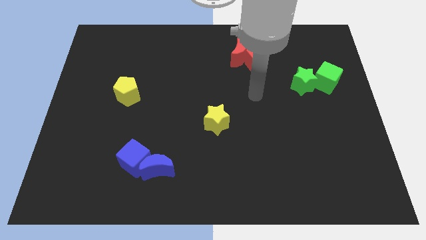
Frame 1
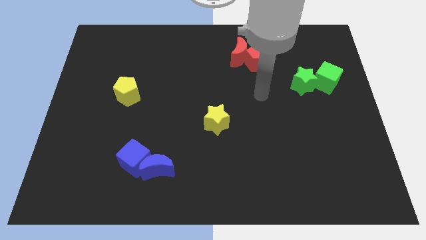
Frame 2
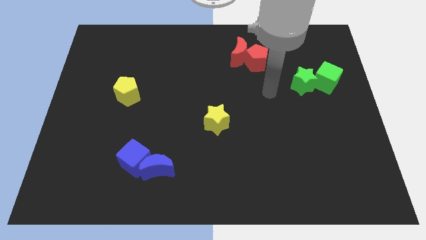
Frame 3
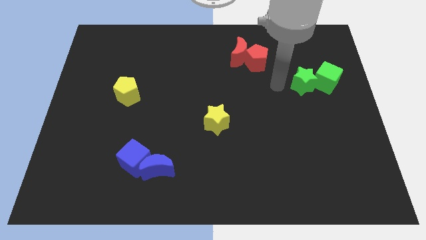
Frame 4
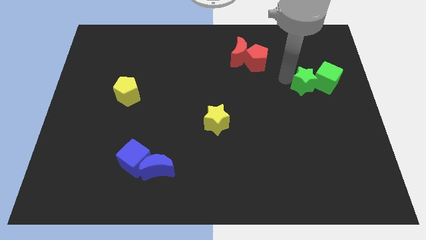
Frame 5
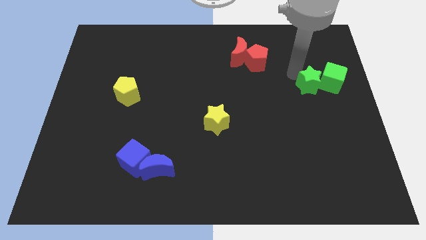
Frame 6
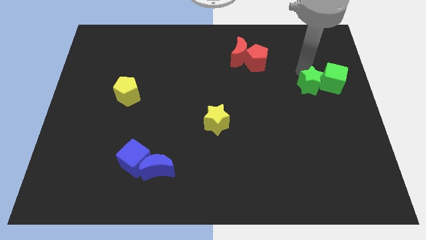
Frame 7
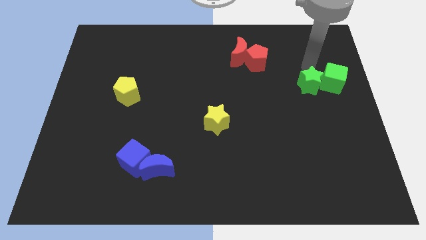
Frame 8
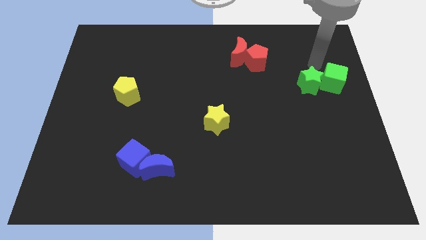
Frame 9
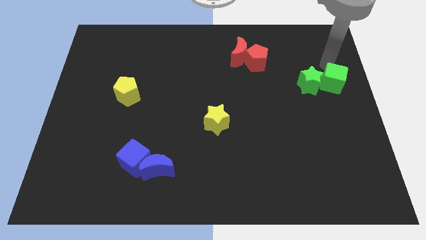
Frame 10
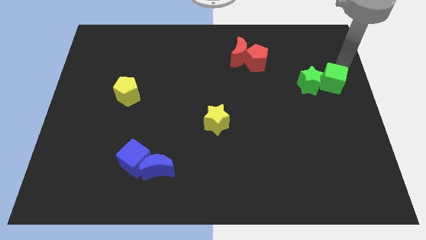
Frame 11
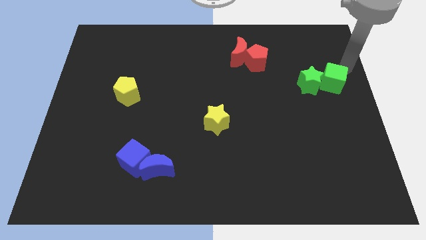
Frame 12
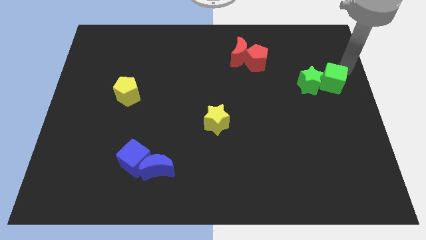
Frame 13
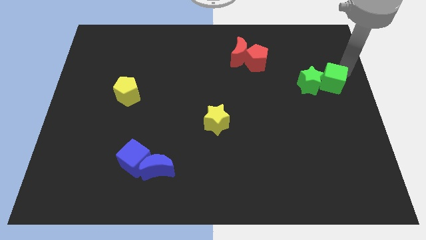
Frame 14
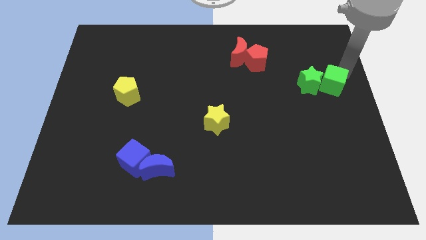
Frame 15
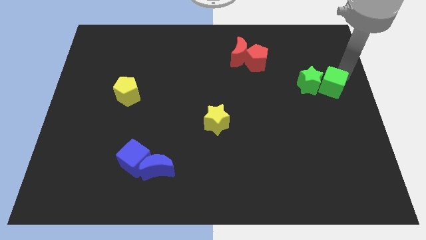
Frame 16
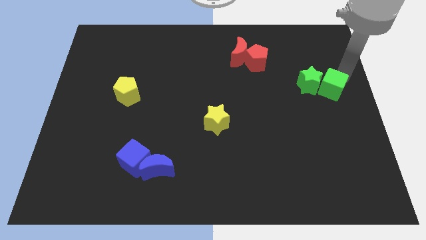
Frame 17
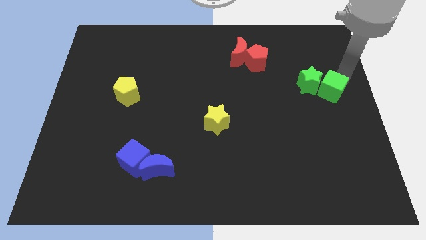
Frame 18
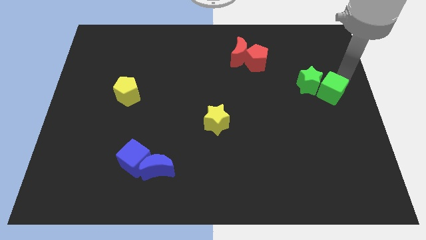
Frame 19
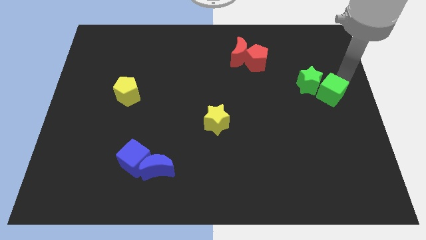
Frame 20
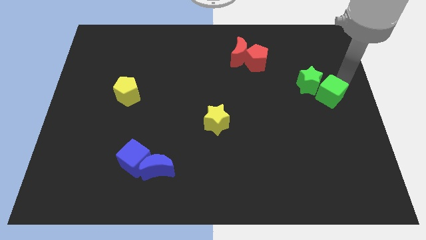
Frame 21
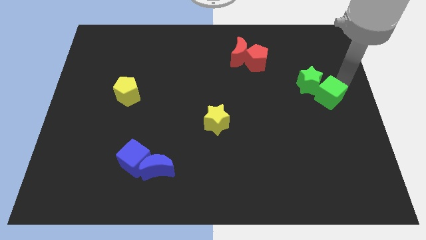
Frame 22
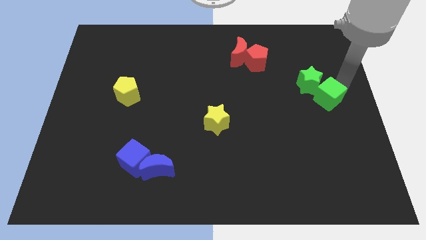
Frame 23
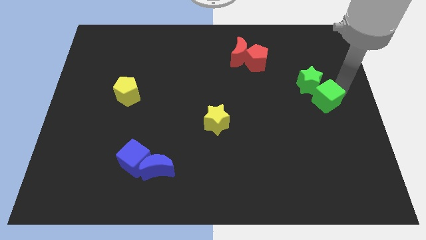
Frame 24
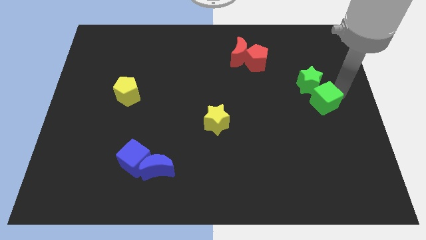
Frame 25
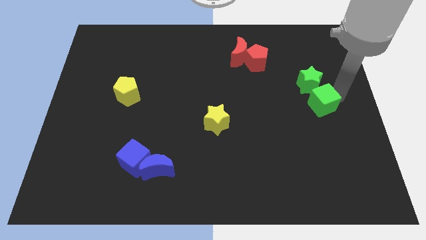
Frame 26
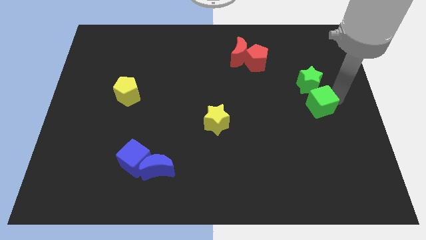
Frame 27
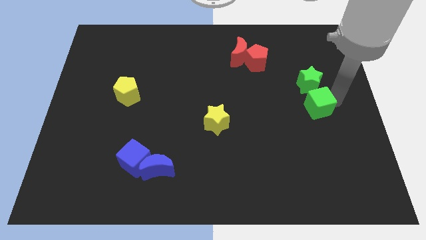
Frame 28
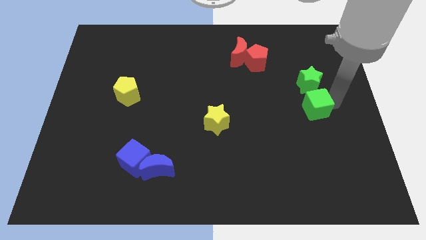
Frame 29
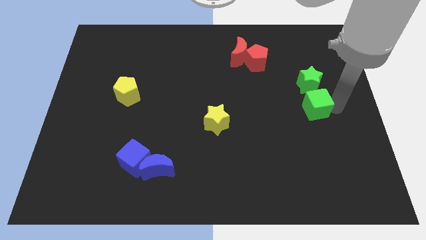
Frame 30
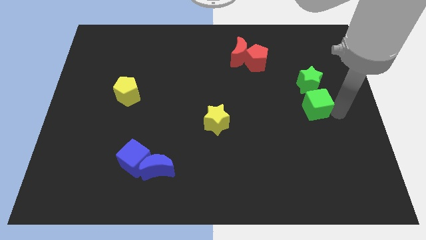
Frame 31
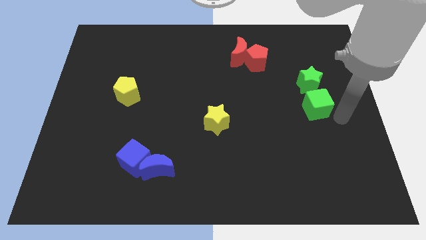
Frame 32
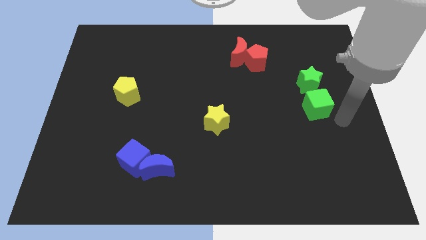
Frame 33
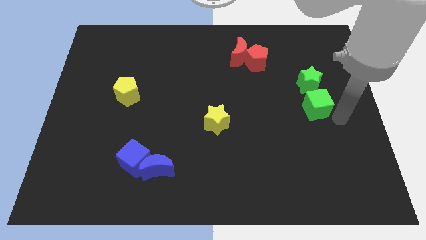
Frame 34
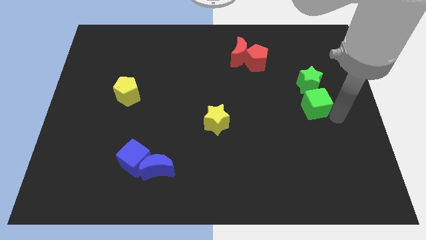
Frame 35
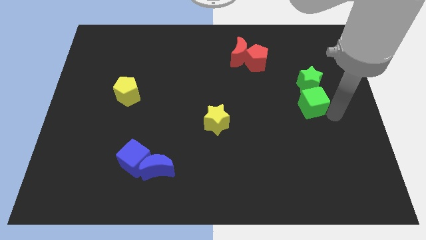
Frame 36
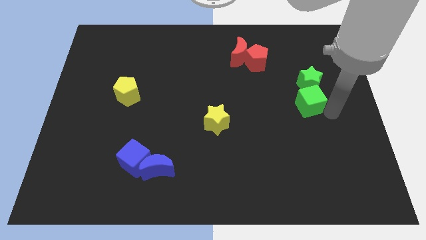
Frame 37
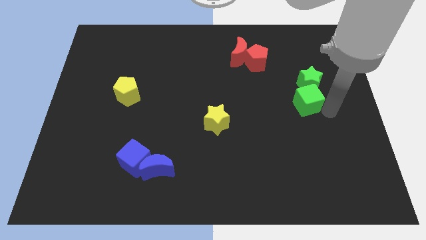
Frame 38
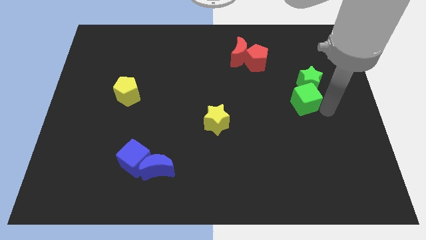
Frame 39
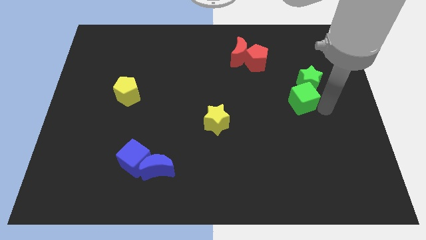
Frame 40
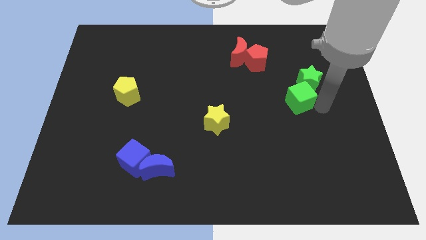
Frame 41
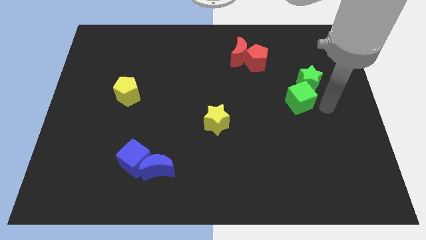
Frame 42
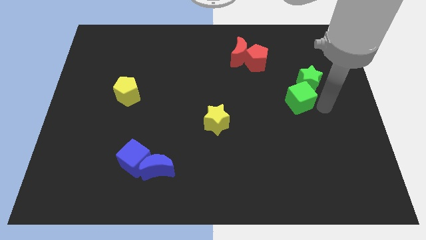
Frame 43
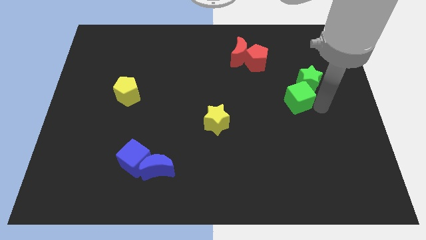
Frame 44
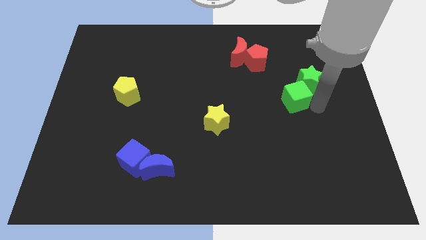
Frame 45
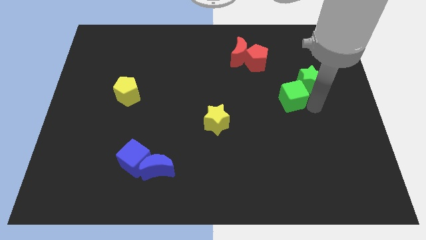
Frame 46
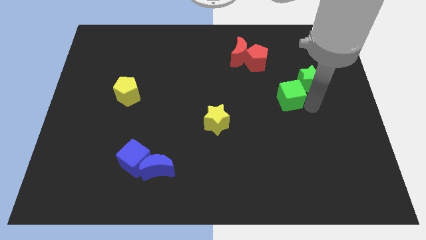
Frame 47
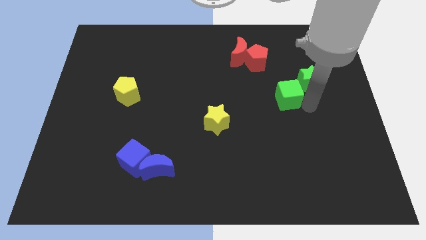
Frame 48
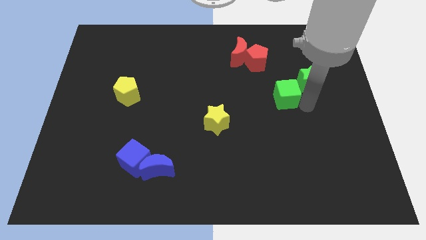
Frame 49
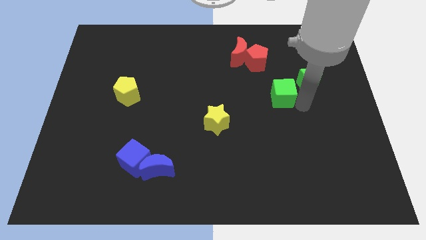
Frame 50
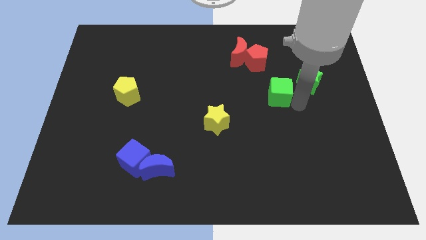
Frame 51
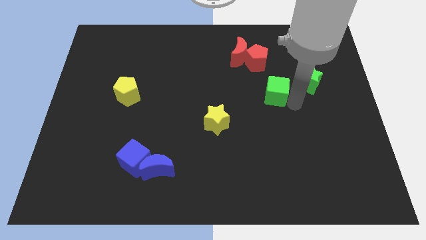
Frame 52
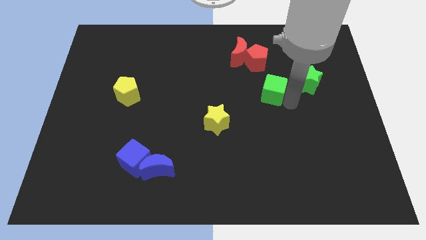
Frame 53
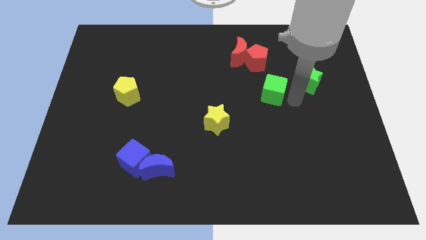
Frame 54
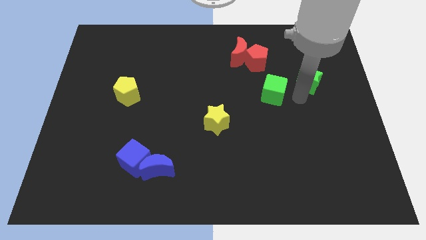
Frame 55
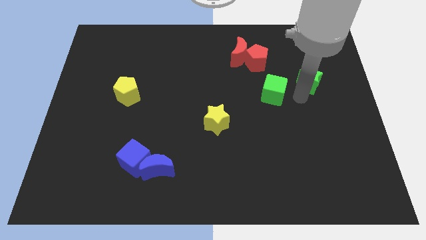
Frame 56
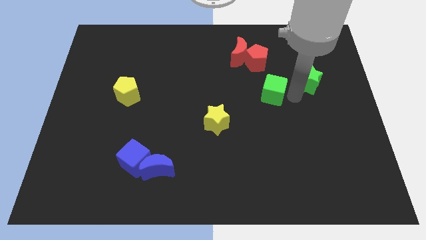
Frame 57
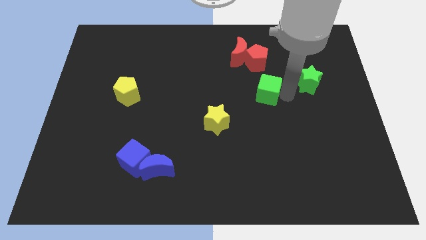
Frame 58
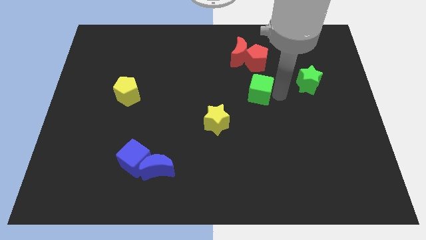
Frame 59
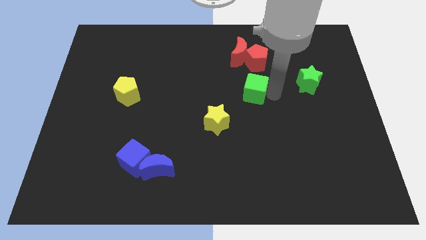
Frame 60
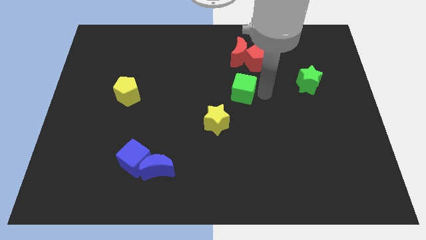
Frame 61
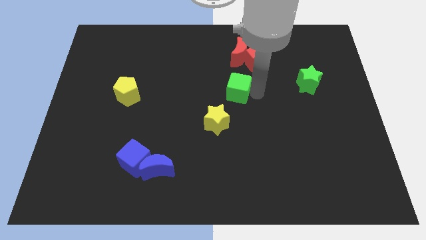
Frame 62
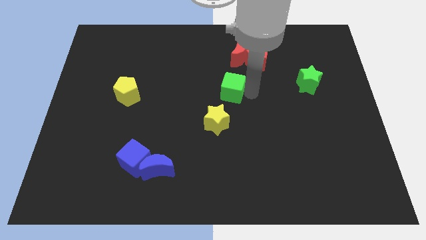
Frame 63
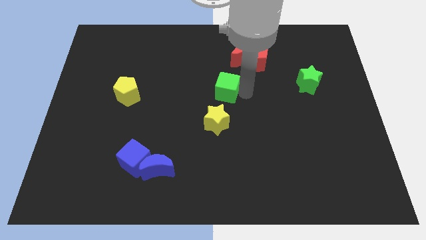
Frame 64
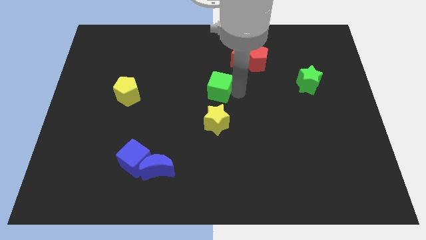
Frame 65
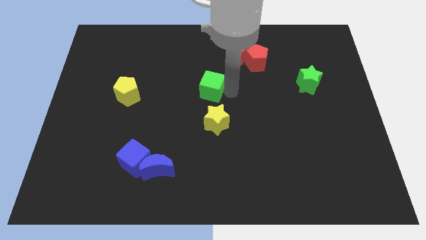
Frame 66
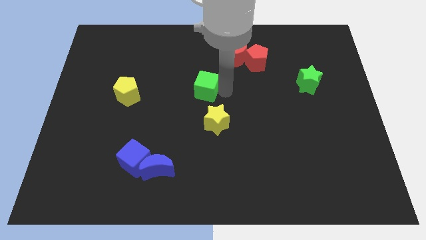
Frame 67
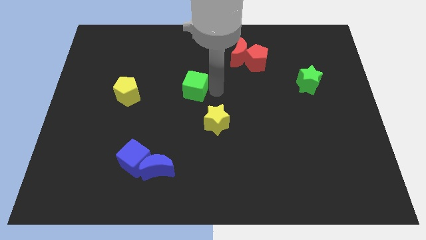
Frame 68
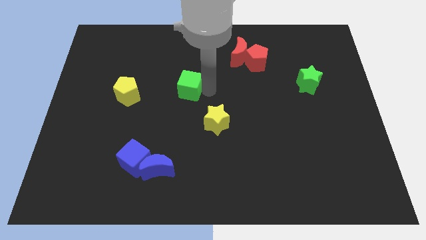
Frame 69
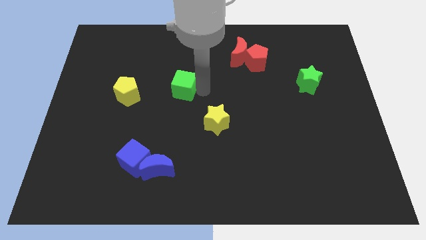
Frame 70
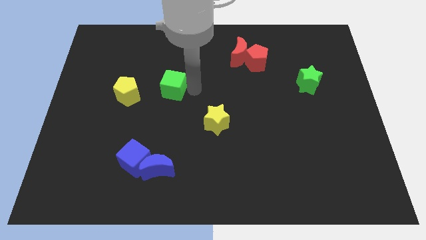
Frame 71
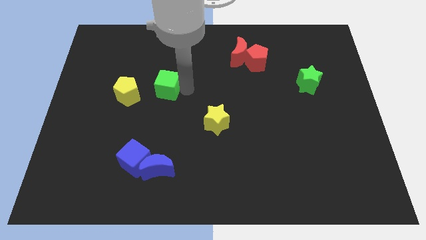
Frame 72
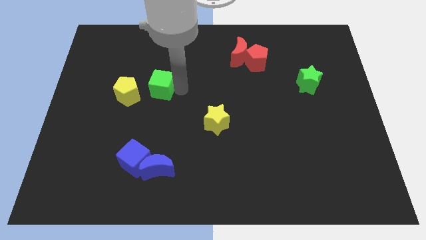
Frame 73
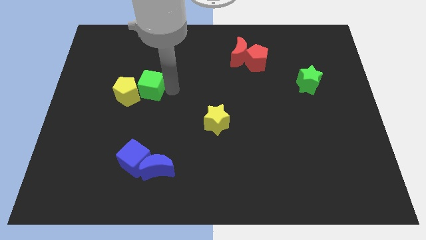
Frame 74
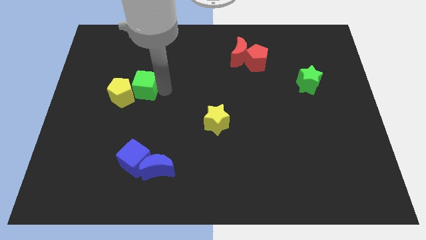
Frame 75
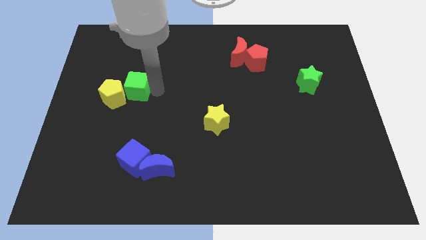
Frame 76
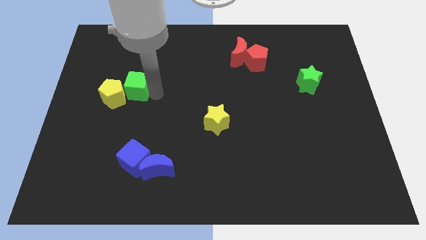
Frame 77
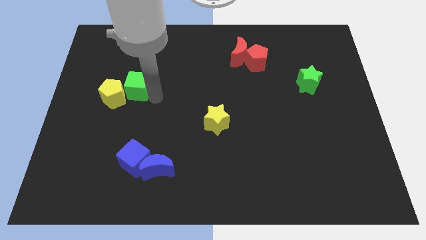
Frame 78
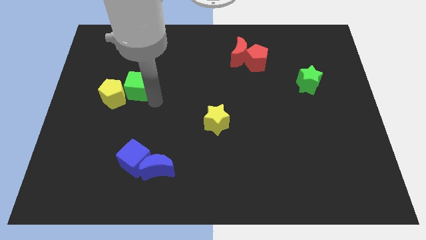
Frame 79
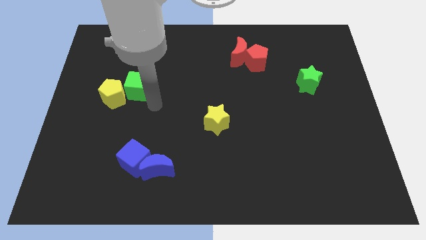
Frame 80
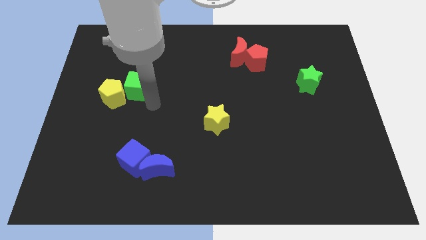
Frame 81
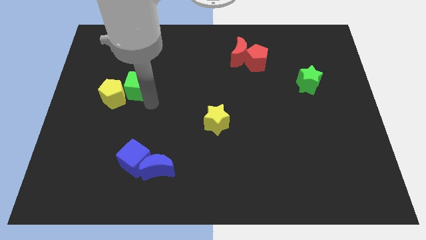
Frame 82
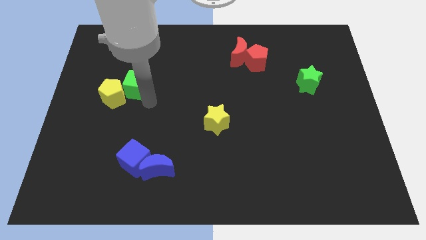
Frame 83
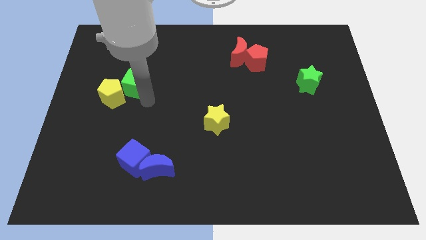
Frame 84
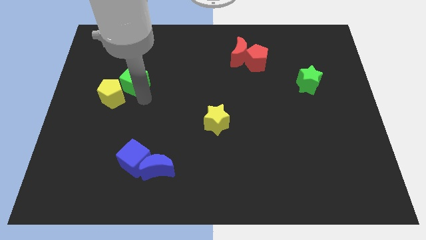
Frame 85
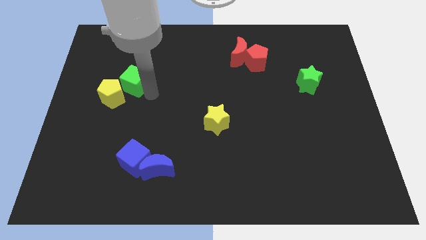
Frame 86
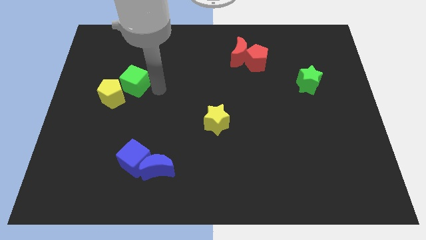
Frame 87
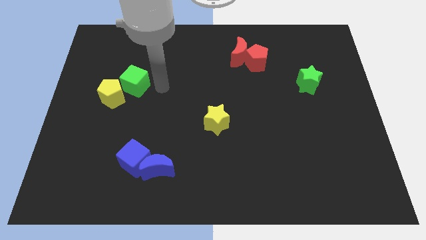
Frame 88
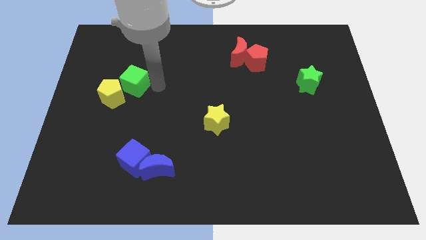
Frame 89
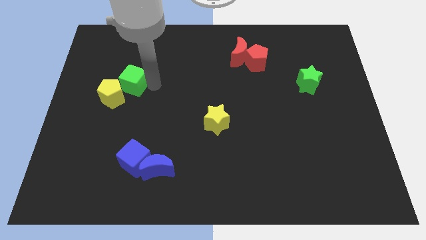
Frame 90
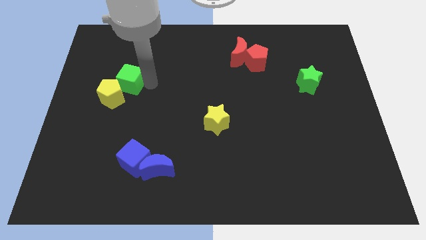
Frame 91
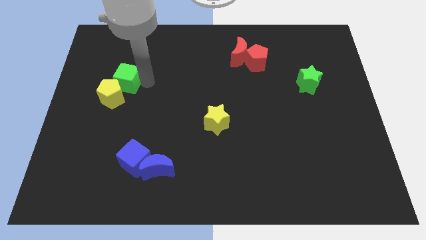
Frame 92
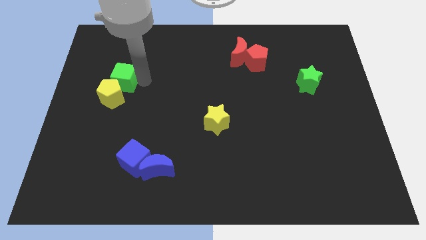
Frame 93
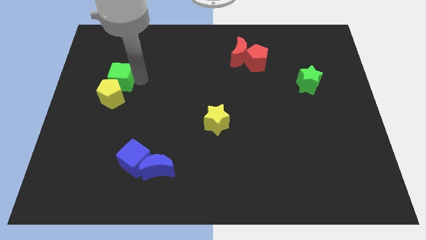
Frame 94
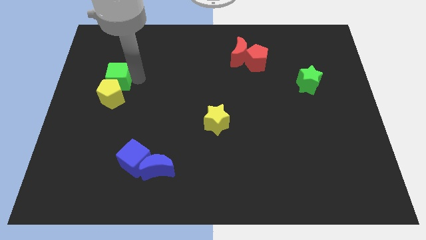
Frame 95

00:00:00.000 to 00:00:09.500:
slide the green cube to the top left side of the yellow pentagon
